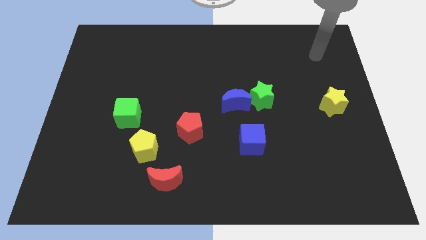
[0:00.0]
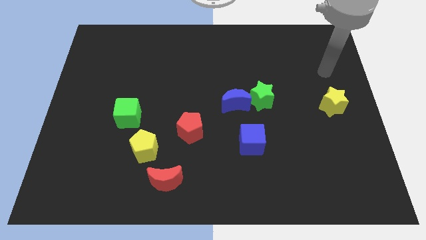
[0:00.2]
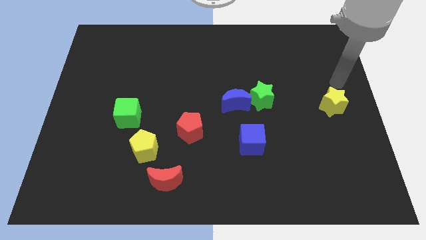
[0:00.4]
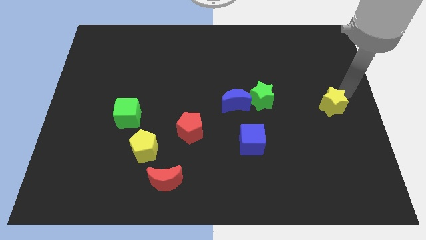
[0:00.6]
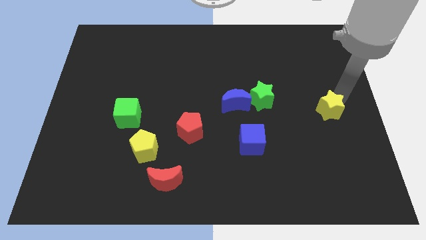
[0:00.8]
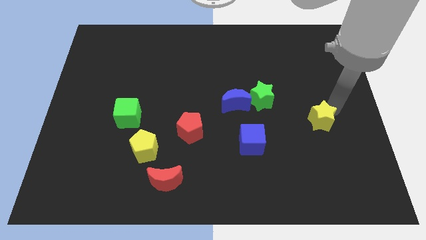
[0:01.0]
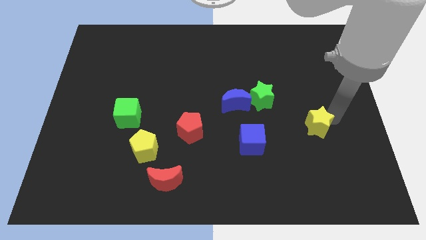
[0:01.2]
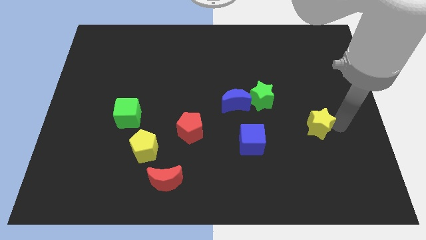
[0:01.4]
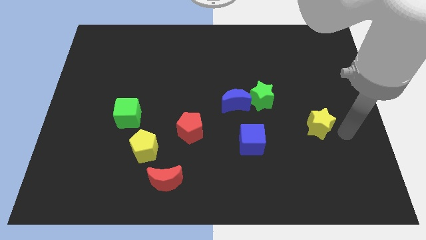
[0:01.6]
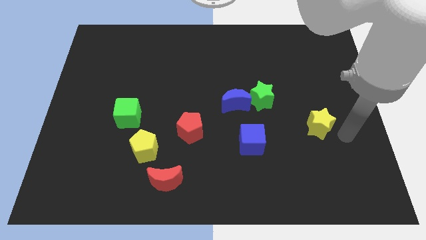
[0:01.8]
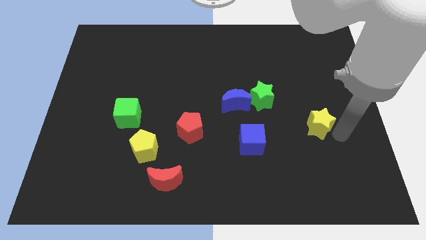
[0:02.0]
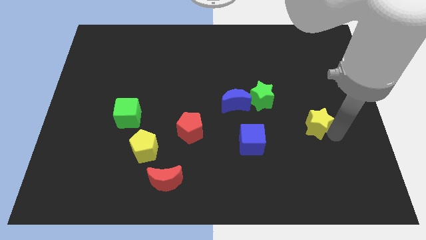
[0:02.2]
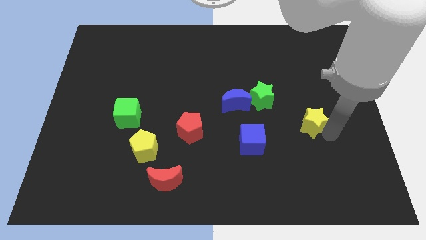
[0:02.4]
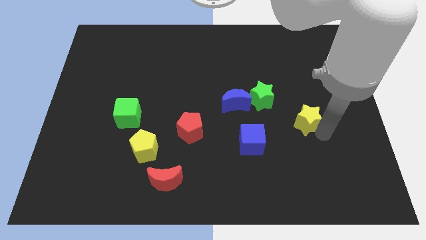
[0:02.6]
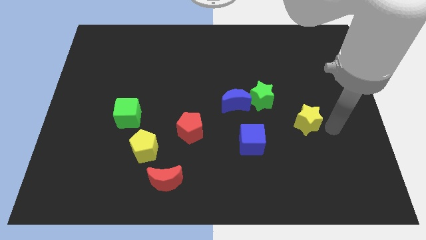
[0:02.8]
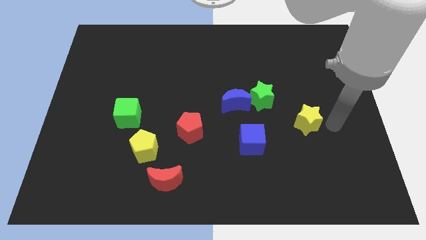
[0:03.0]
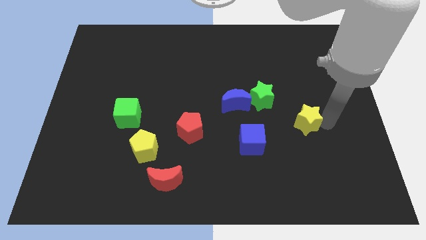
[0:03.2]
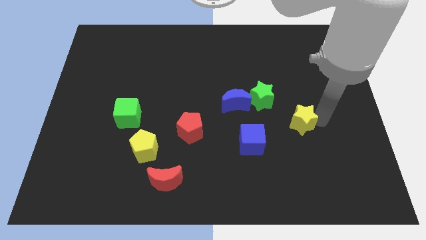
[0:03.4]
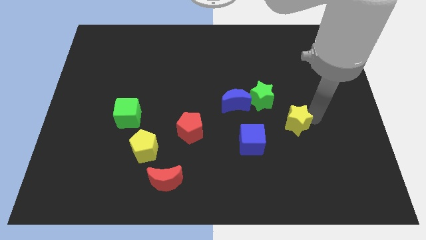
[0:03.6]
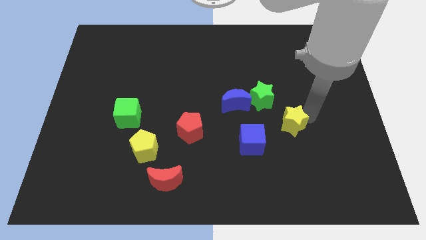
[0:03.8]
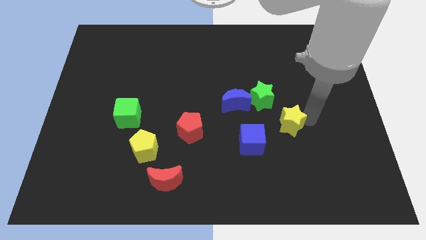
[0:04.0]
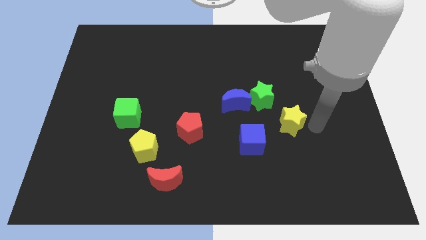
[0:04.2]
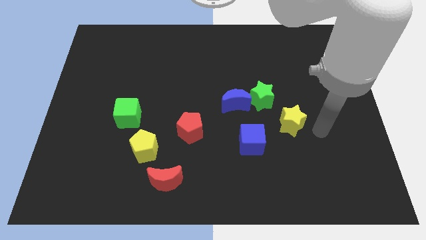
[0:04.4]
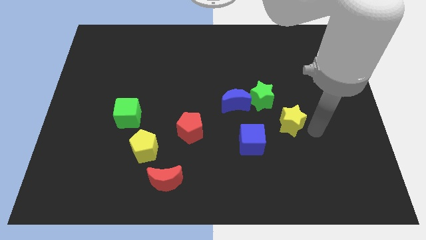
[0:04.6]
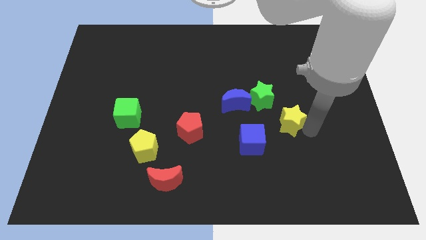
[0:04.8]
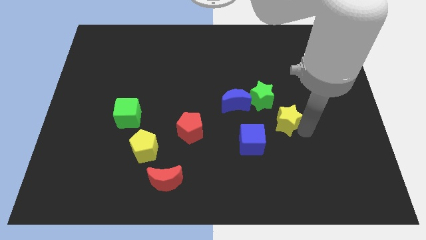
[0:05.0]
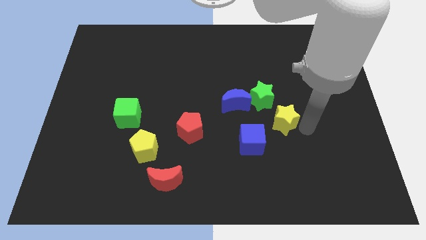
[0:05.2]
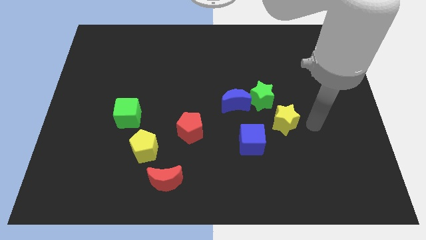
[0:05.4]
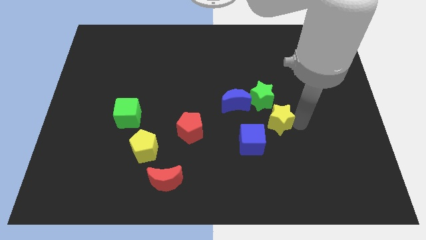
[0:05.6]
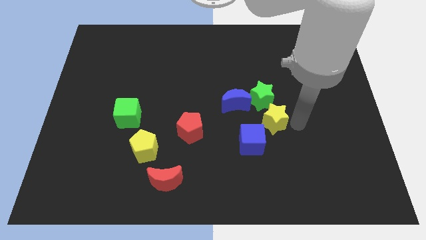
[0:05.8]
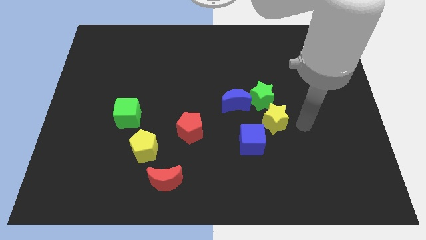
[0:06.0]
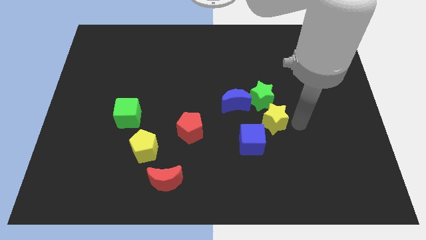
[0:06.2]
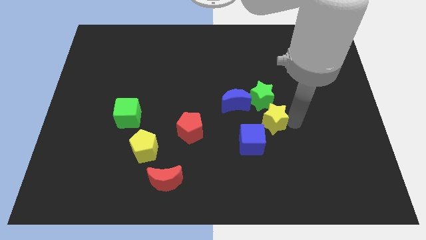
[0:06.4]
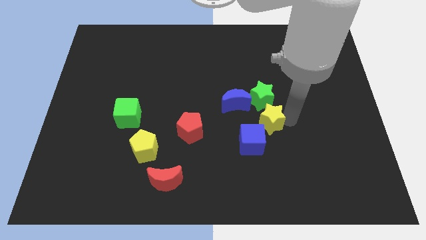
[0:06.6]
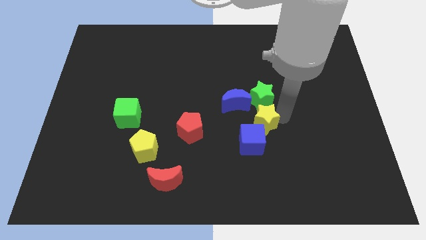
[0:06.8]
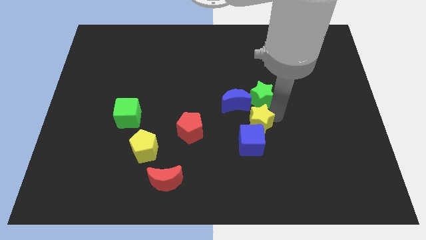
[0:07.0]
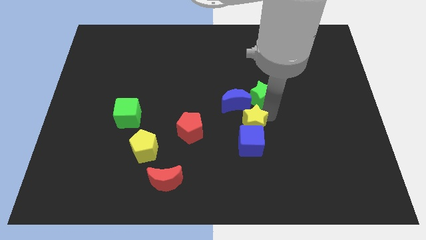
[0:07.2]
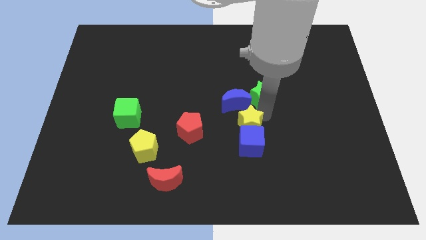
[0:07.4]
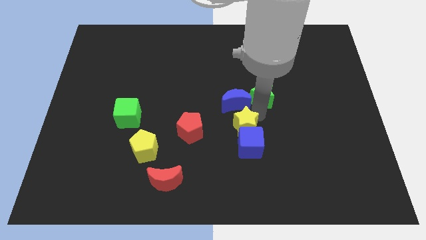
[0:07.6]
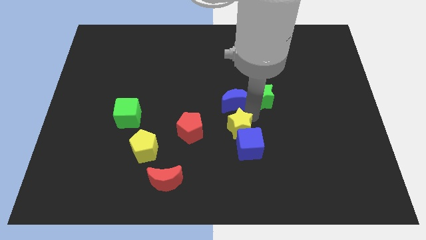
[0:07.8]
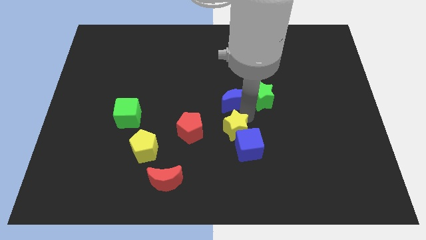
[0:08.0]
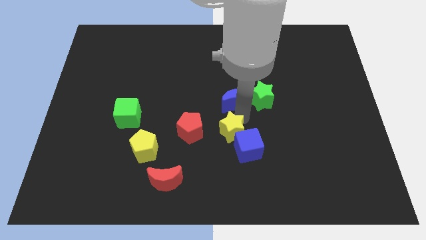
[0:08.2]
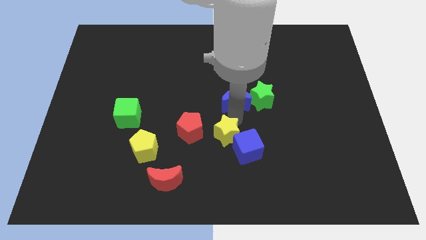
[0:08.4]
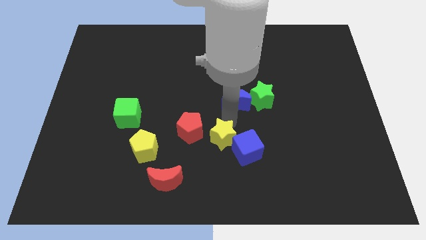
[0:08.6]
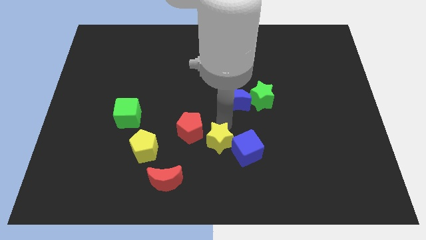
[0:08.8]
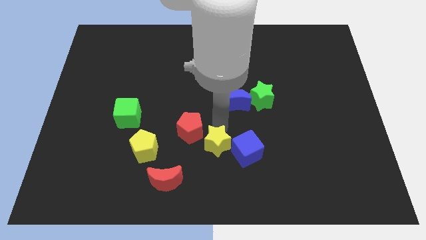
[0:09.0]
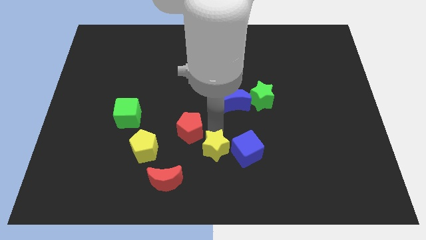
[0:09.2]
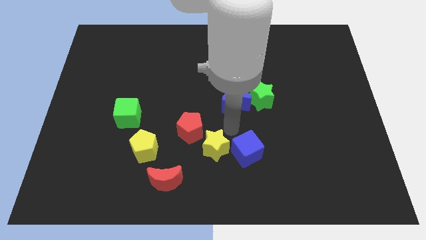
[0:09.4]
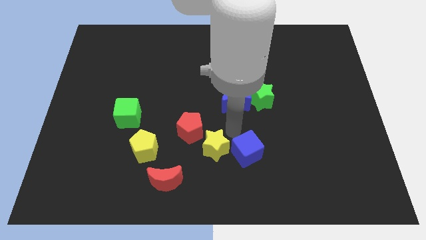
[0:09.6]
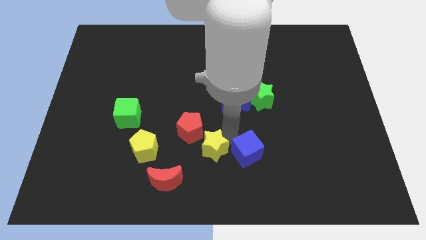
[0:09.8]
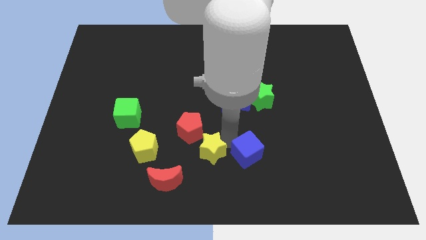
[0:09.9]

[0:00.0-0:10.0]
move the yellow star to the bottom side of the red pentagon

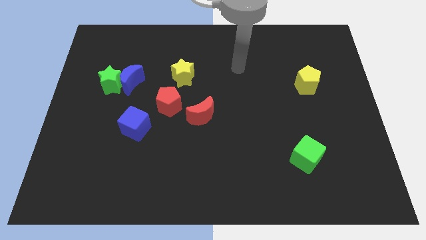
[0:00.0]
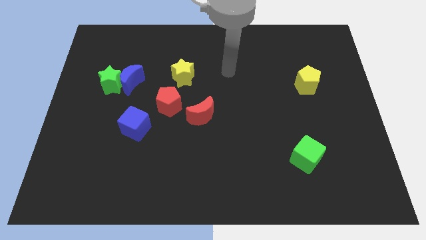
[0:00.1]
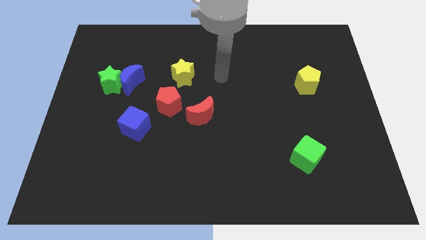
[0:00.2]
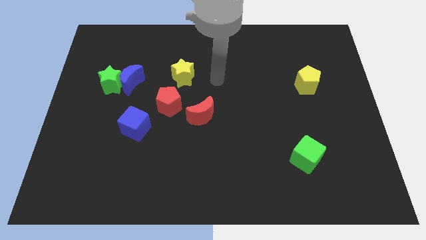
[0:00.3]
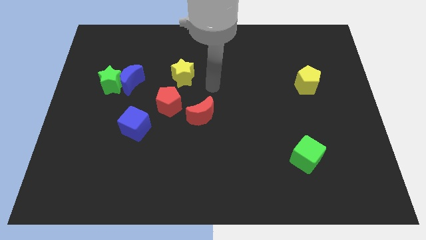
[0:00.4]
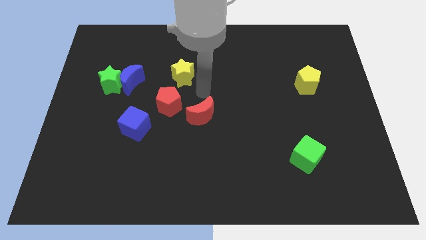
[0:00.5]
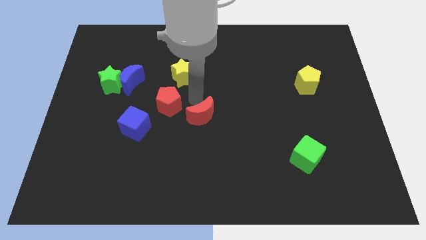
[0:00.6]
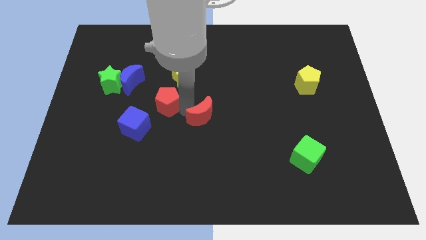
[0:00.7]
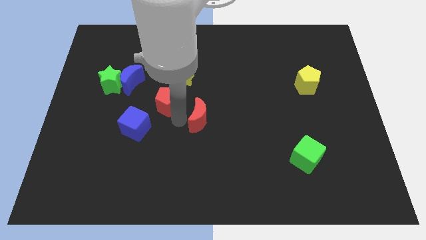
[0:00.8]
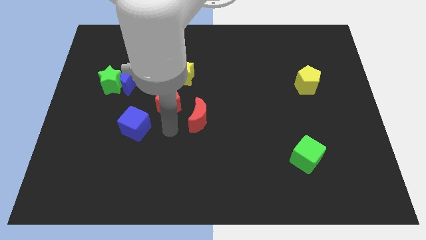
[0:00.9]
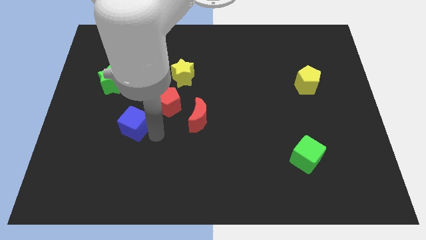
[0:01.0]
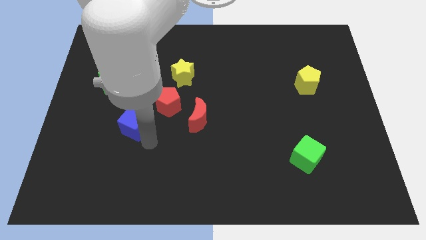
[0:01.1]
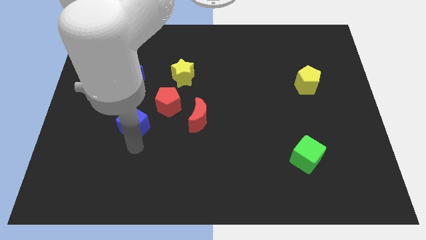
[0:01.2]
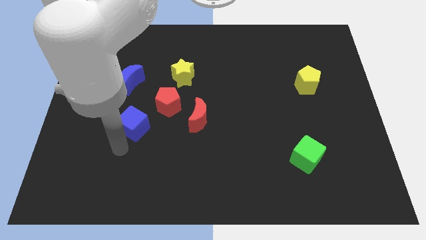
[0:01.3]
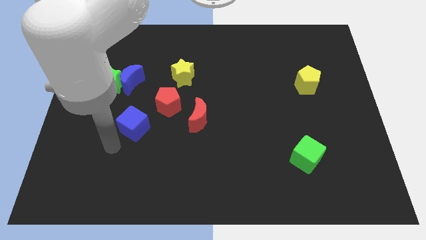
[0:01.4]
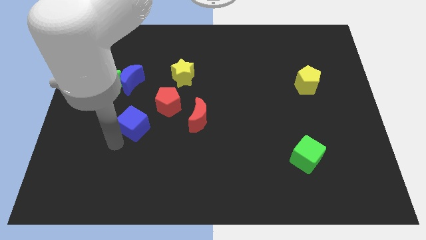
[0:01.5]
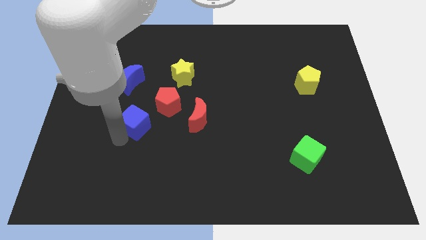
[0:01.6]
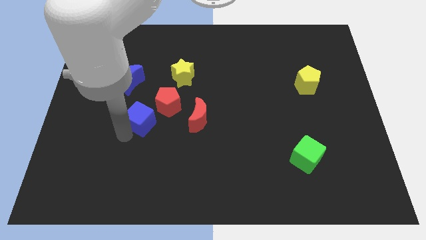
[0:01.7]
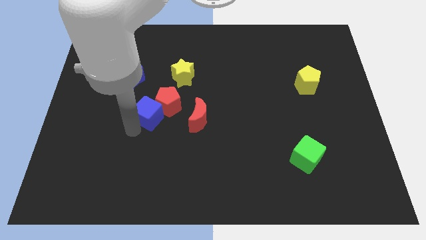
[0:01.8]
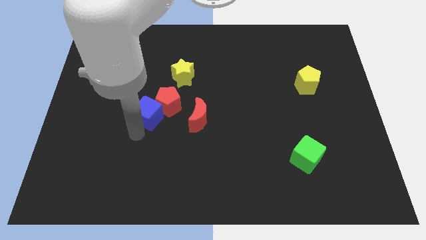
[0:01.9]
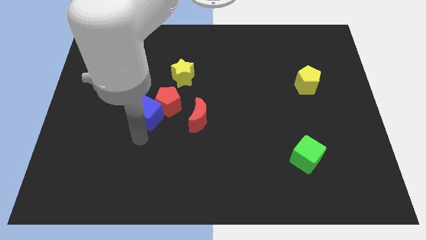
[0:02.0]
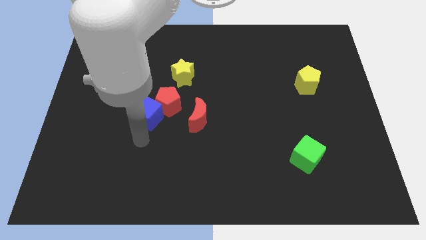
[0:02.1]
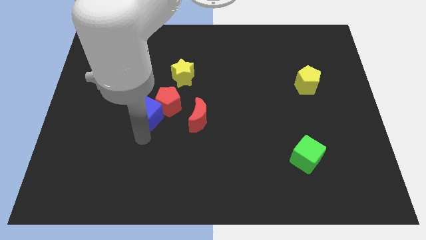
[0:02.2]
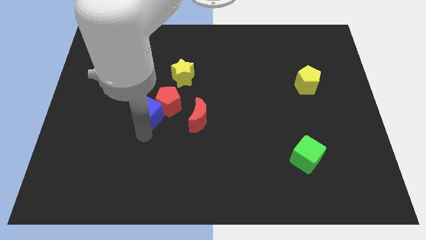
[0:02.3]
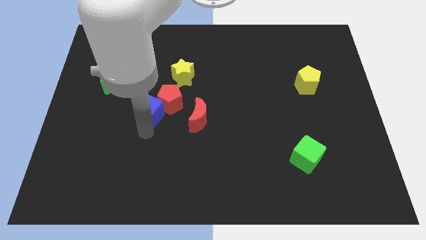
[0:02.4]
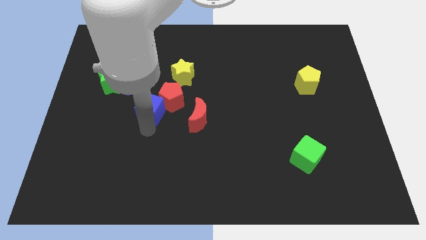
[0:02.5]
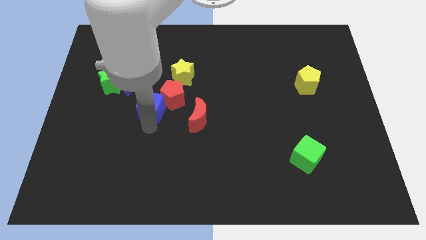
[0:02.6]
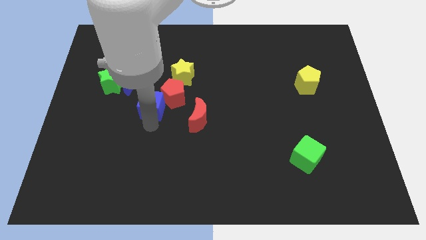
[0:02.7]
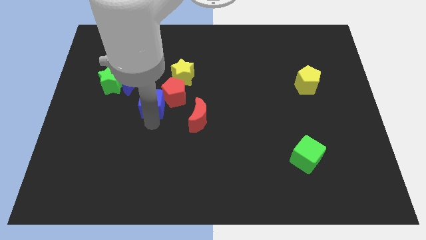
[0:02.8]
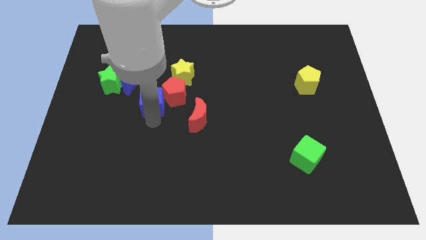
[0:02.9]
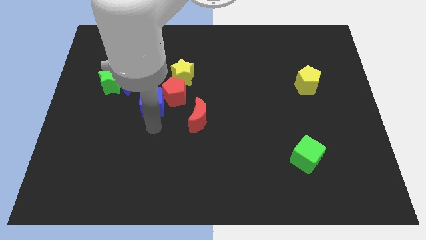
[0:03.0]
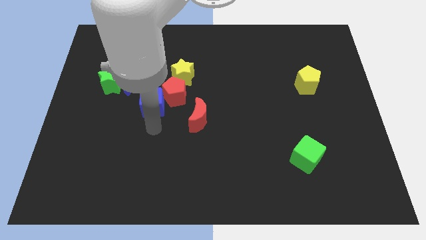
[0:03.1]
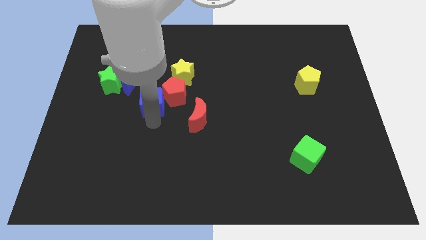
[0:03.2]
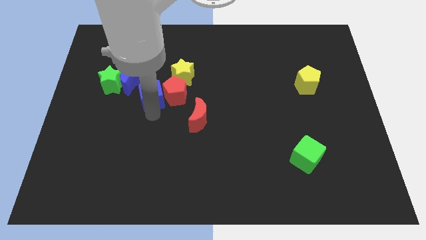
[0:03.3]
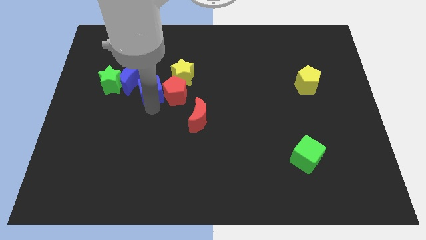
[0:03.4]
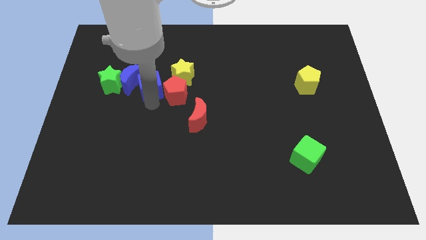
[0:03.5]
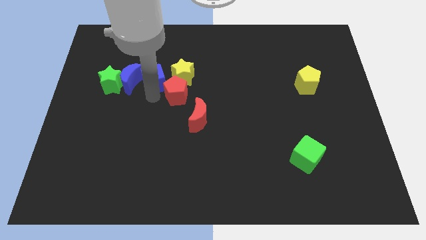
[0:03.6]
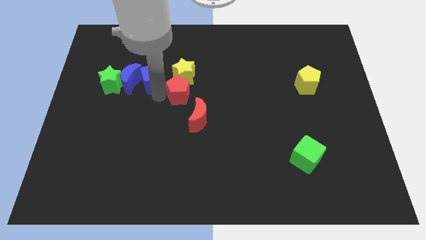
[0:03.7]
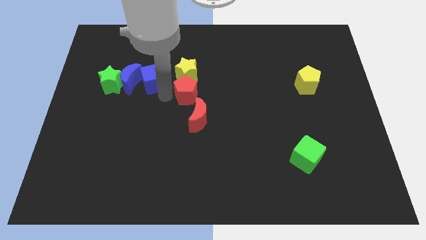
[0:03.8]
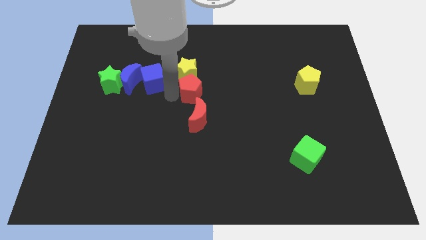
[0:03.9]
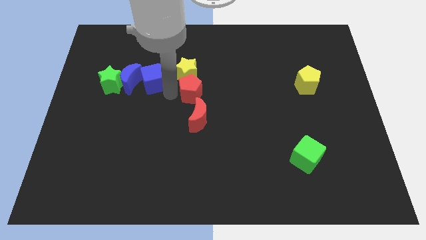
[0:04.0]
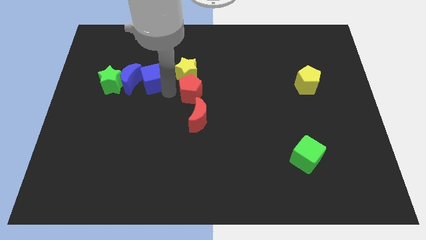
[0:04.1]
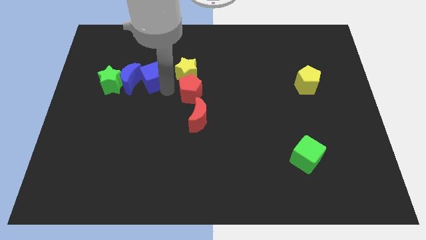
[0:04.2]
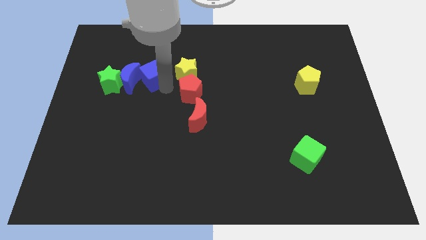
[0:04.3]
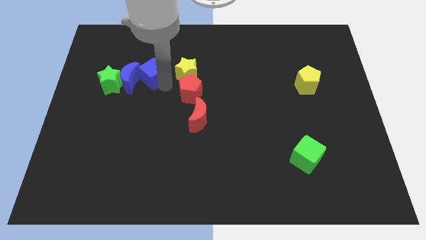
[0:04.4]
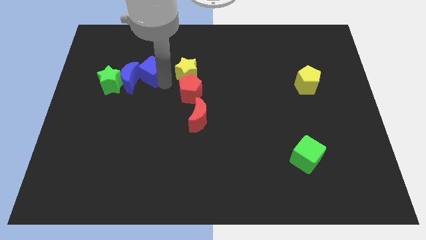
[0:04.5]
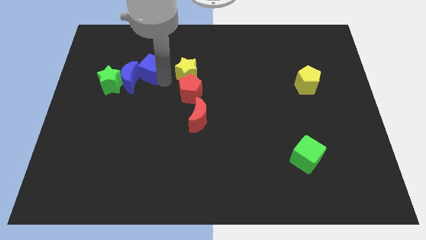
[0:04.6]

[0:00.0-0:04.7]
slide the blue cube to the top right side of the green star
